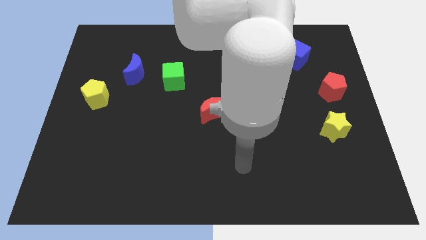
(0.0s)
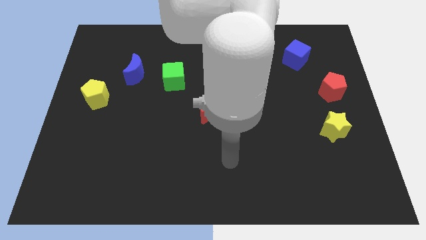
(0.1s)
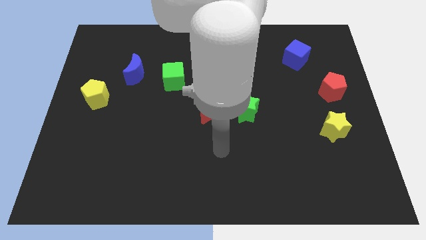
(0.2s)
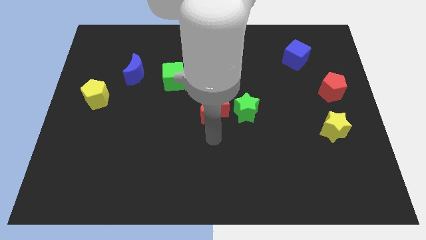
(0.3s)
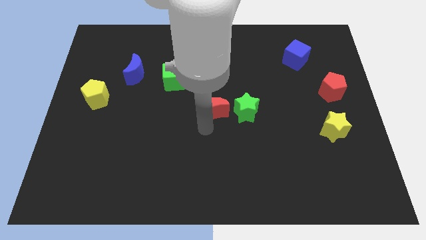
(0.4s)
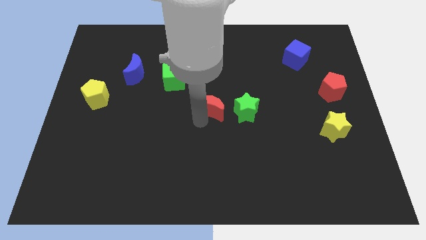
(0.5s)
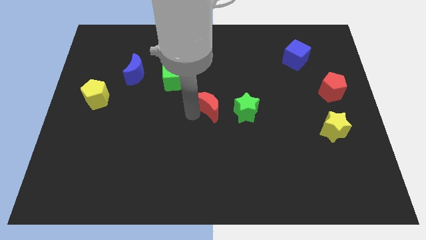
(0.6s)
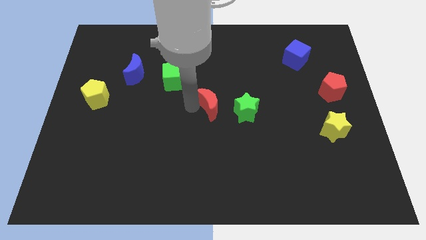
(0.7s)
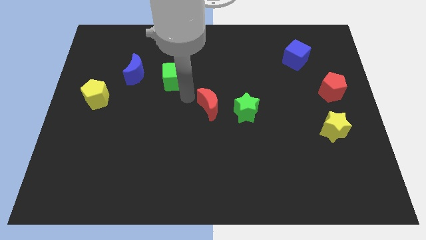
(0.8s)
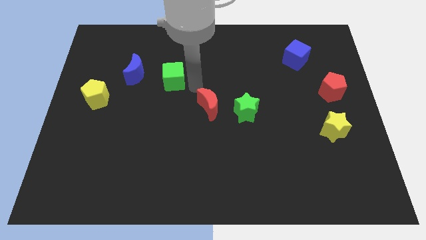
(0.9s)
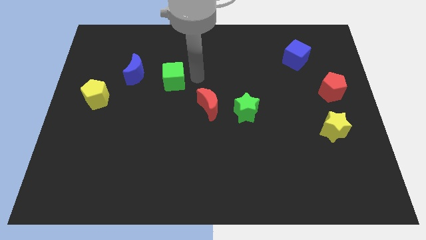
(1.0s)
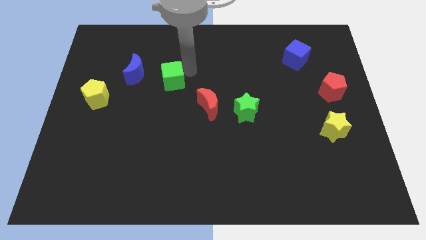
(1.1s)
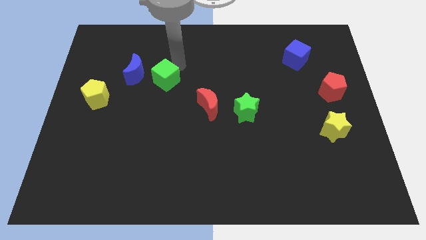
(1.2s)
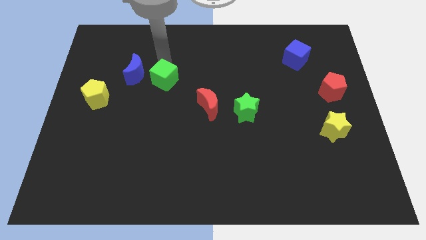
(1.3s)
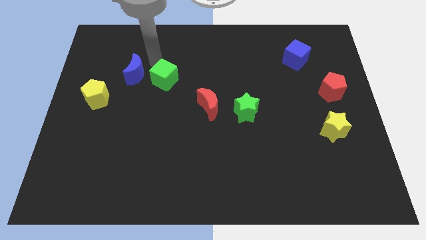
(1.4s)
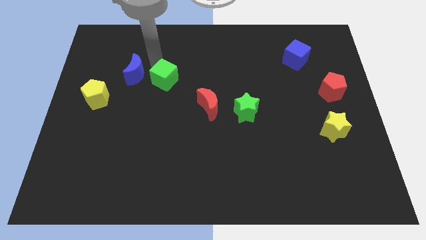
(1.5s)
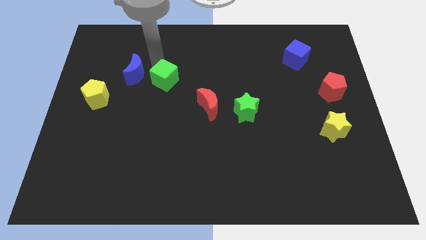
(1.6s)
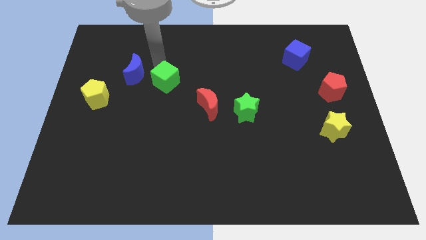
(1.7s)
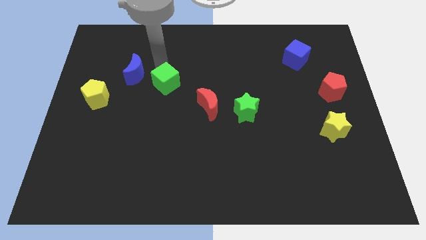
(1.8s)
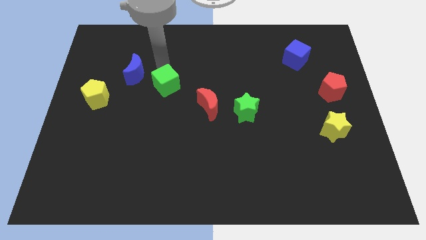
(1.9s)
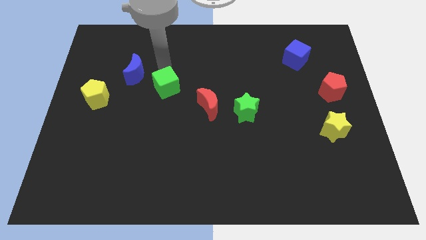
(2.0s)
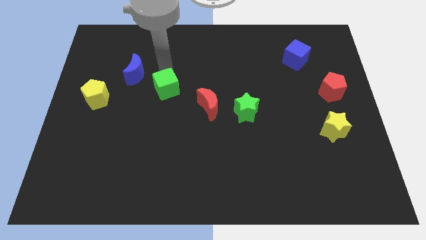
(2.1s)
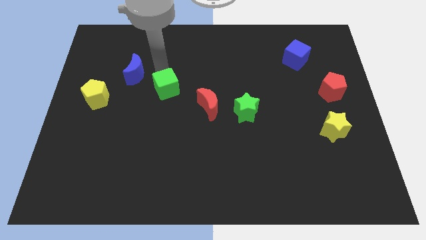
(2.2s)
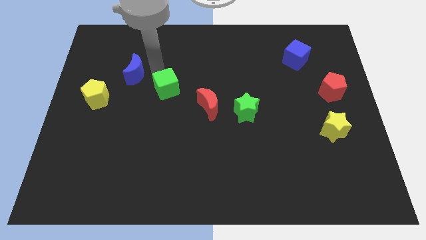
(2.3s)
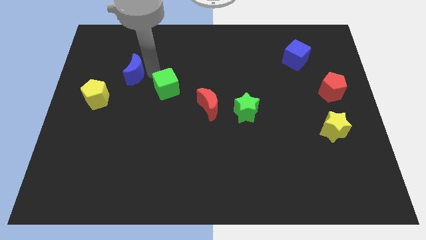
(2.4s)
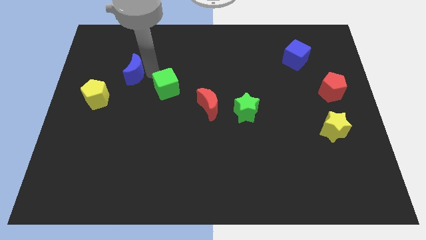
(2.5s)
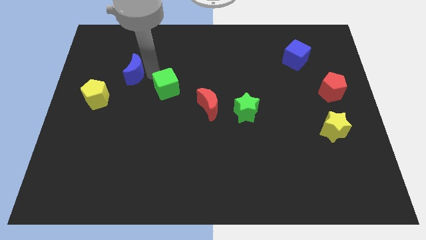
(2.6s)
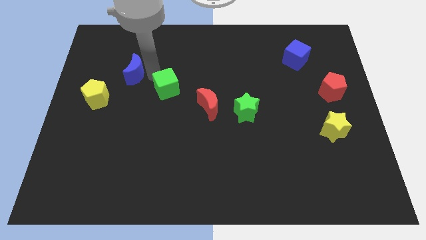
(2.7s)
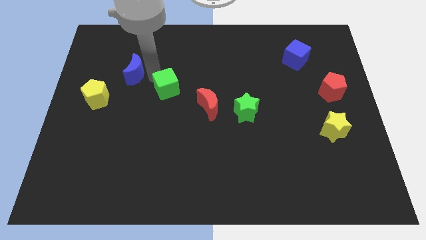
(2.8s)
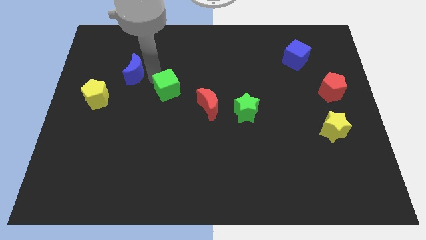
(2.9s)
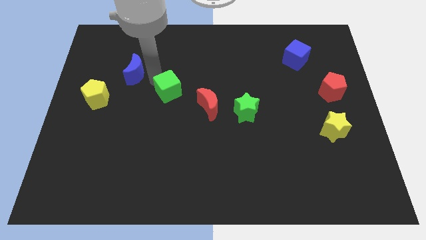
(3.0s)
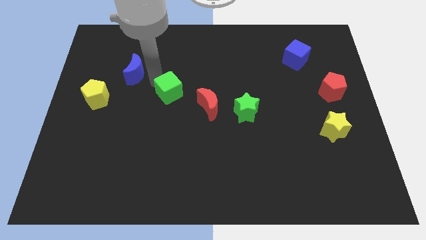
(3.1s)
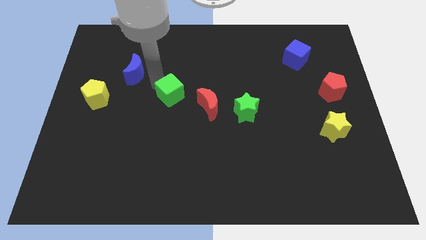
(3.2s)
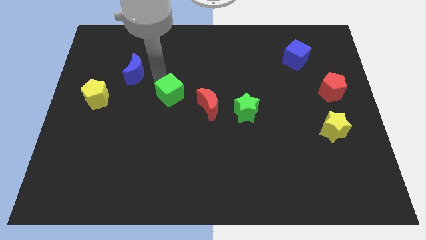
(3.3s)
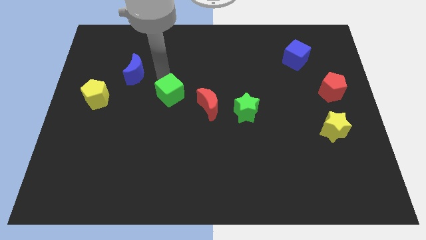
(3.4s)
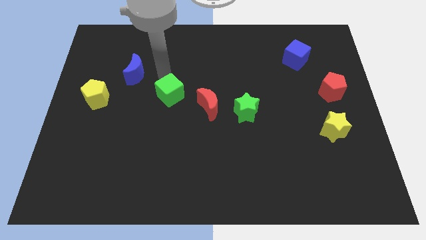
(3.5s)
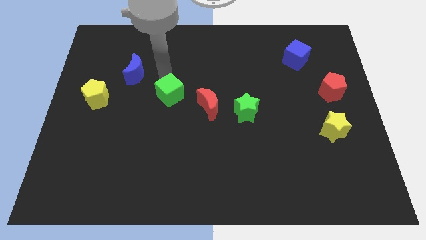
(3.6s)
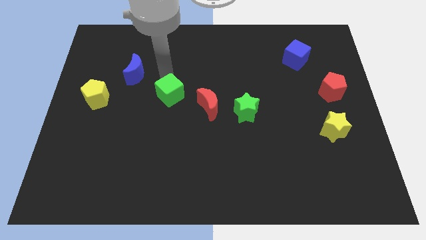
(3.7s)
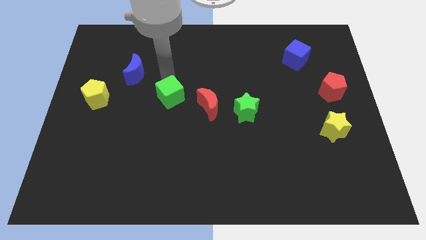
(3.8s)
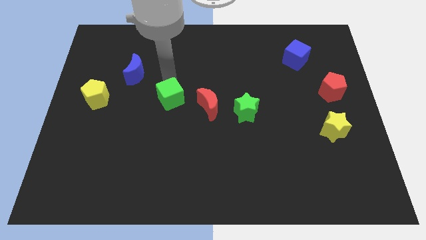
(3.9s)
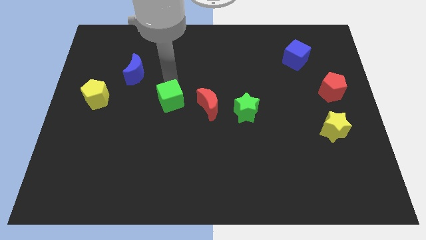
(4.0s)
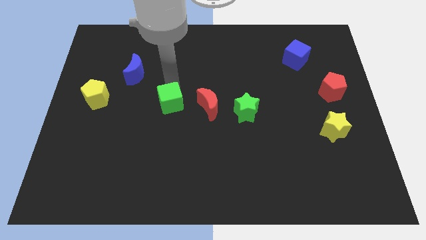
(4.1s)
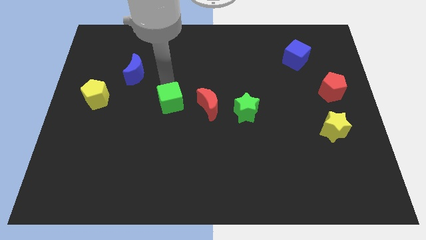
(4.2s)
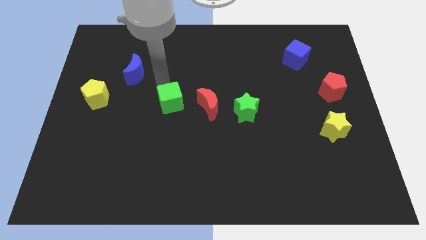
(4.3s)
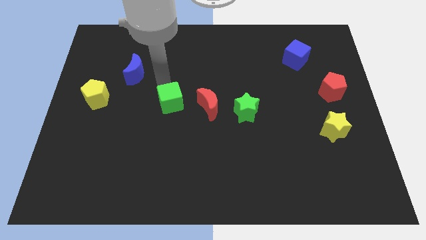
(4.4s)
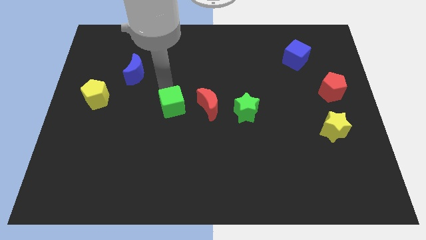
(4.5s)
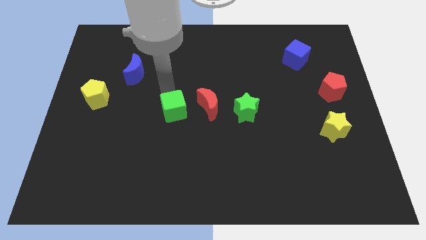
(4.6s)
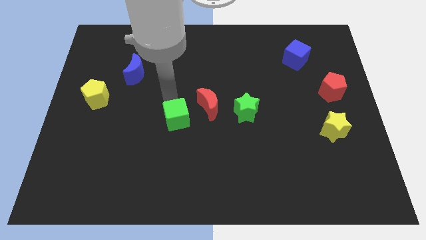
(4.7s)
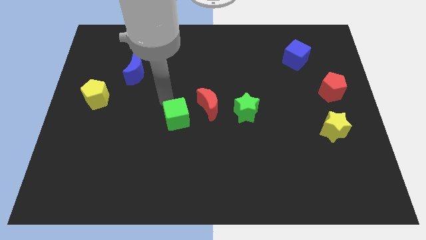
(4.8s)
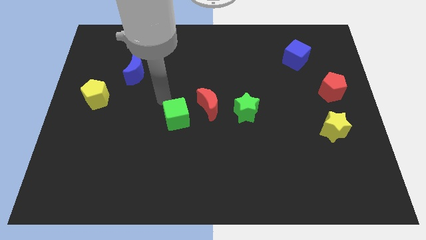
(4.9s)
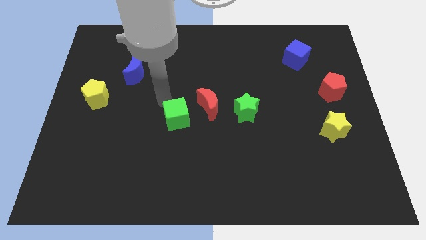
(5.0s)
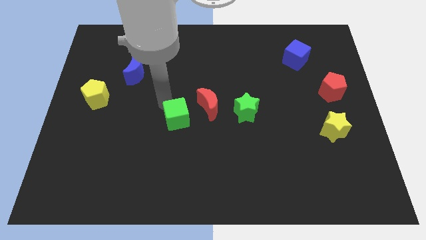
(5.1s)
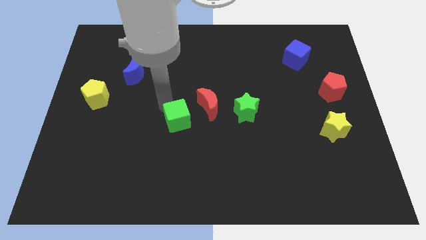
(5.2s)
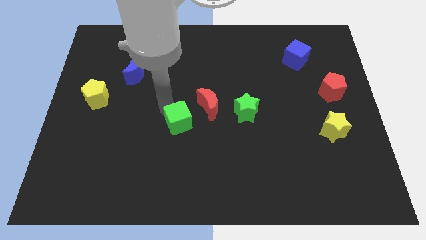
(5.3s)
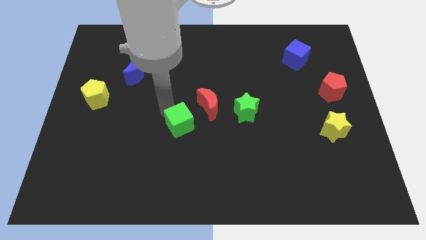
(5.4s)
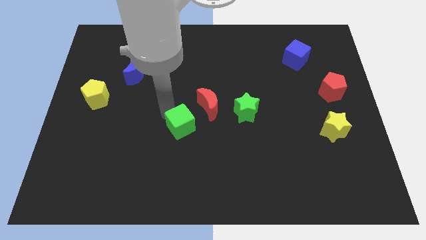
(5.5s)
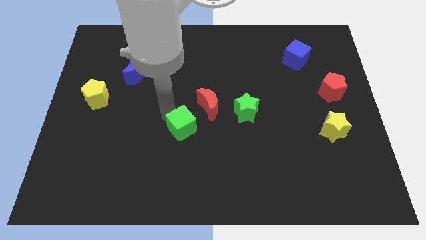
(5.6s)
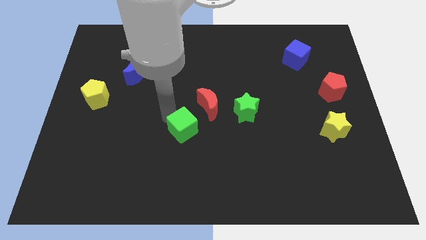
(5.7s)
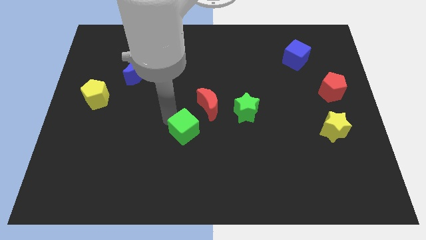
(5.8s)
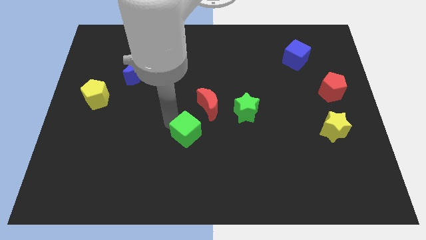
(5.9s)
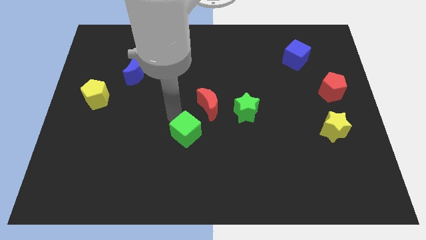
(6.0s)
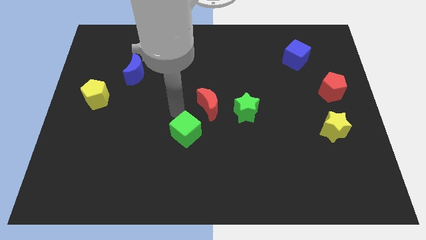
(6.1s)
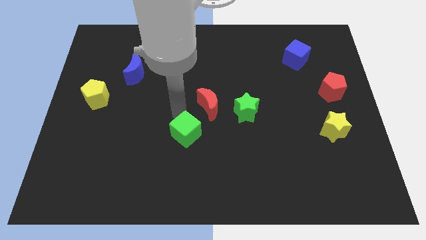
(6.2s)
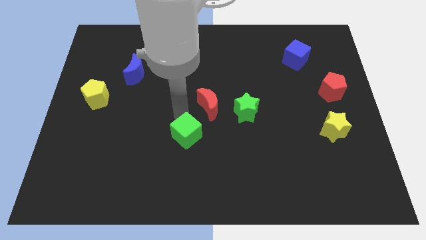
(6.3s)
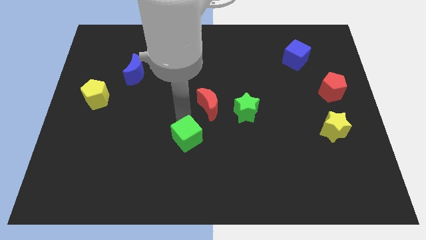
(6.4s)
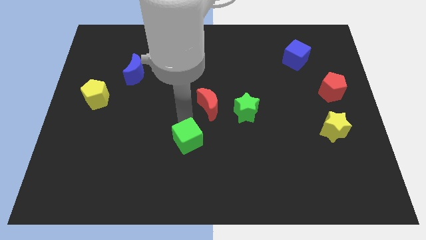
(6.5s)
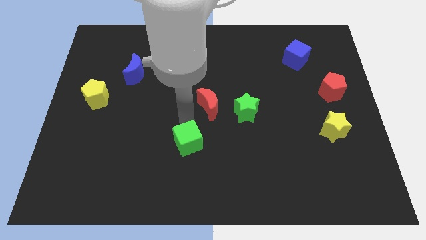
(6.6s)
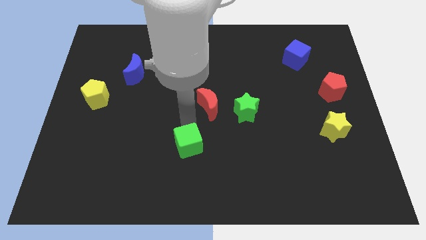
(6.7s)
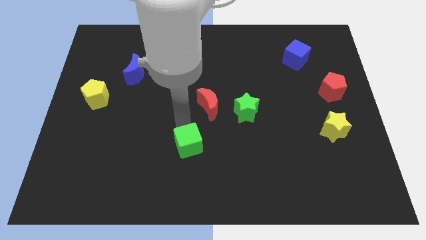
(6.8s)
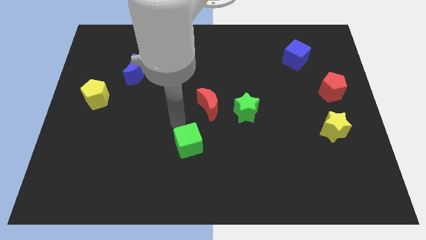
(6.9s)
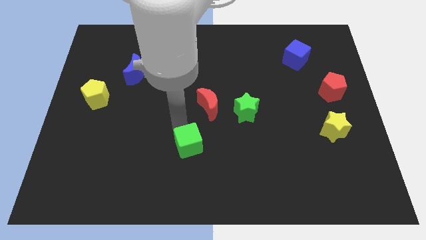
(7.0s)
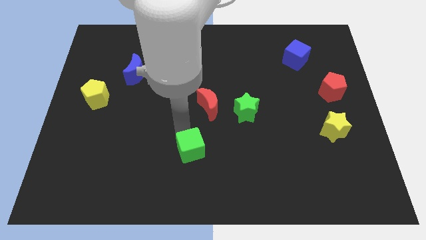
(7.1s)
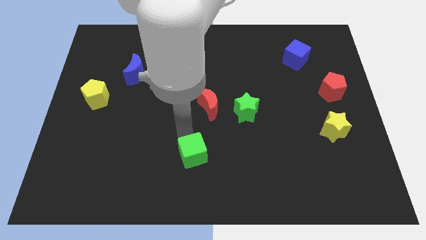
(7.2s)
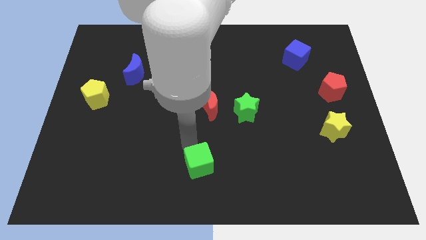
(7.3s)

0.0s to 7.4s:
move the green cube to the bottom side

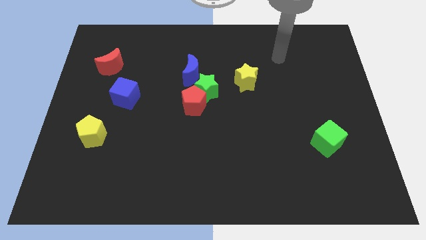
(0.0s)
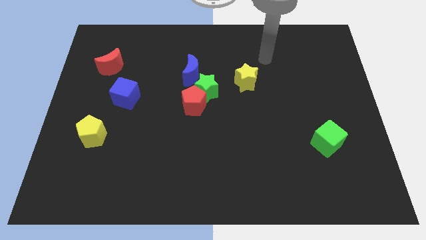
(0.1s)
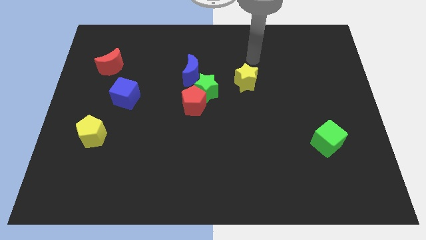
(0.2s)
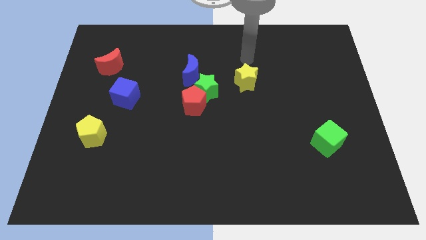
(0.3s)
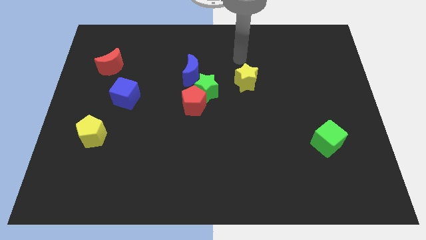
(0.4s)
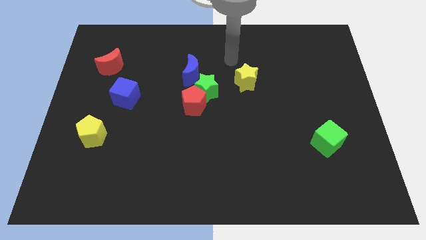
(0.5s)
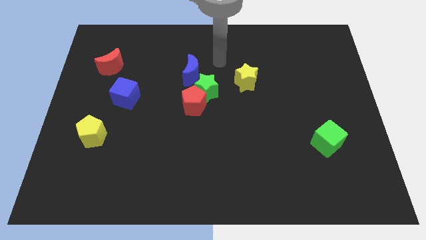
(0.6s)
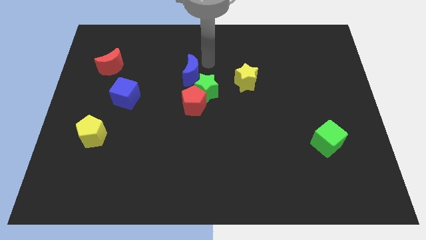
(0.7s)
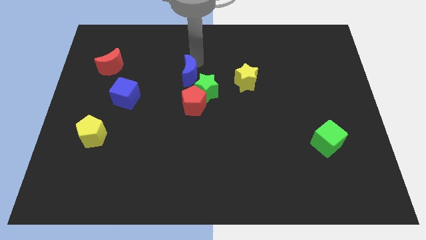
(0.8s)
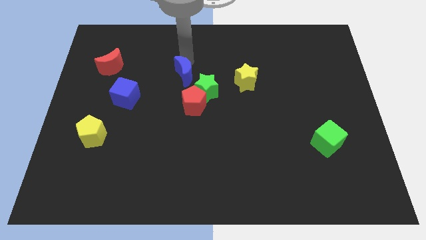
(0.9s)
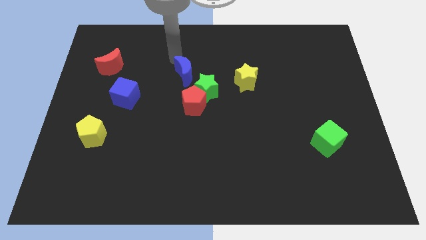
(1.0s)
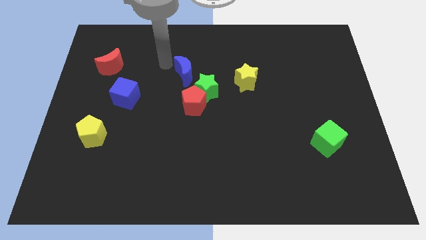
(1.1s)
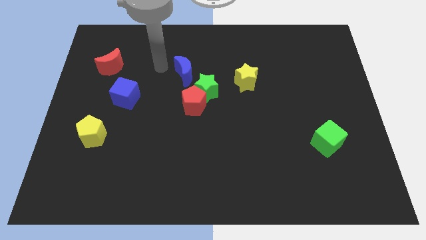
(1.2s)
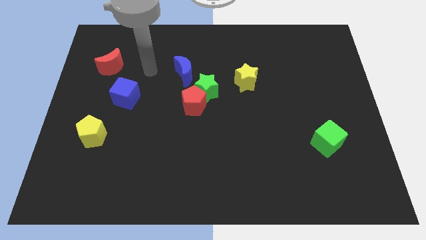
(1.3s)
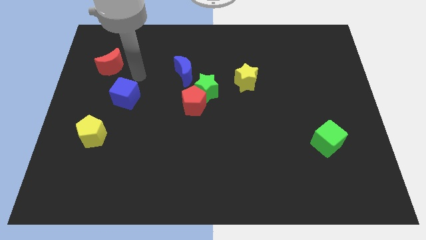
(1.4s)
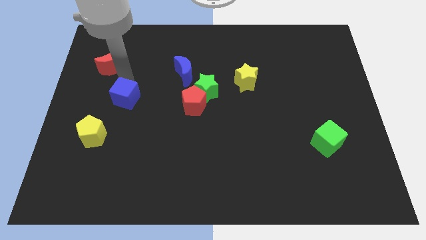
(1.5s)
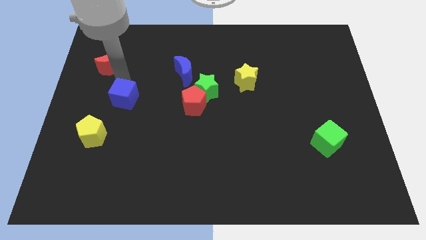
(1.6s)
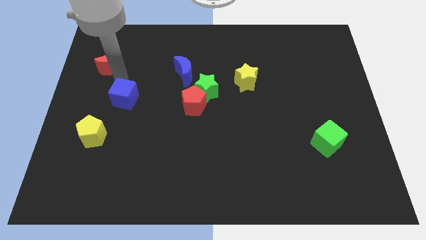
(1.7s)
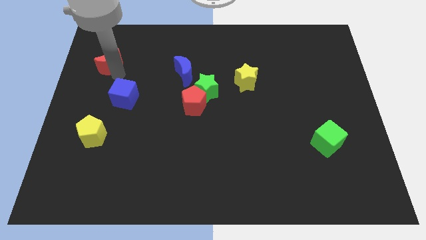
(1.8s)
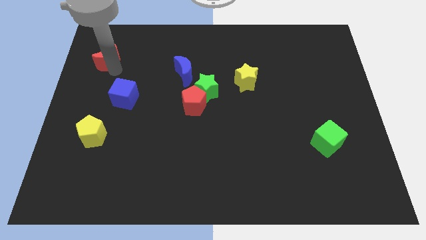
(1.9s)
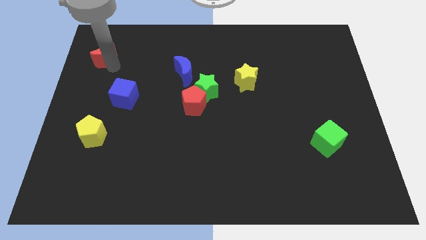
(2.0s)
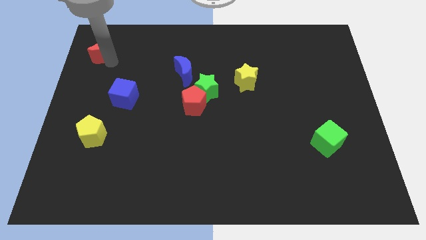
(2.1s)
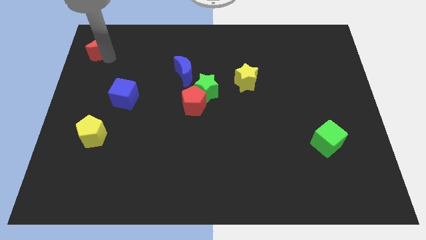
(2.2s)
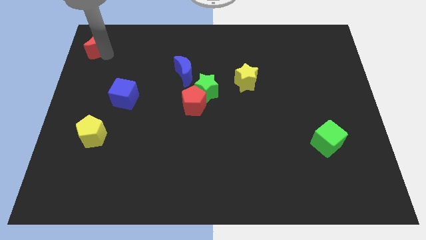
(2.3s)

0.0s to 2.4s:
push the red moon to the top left
